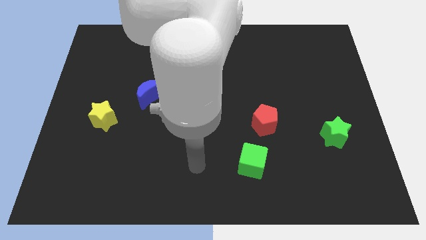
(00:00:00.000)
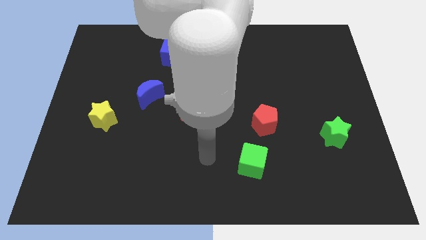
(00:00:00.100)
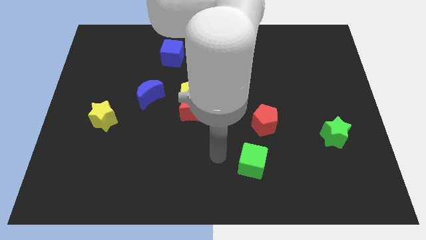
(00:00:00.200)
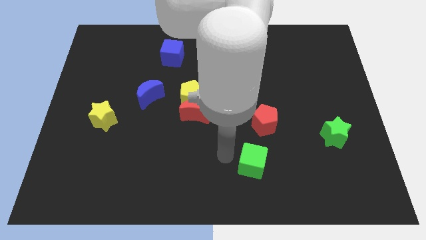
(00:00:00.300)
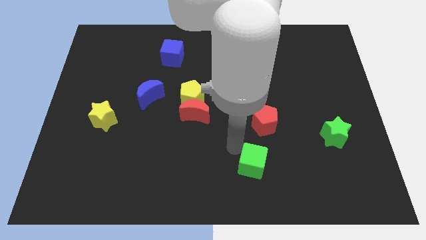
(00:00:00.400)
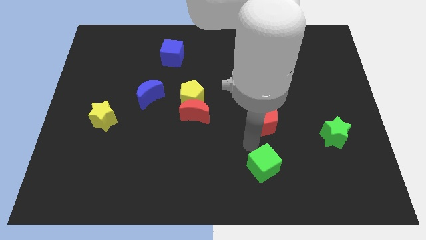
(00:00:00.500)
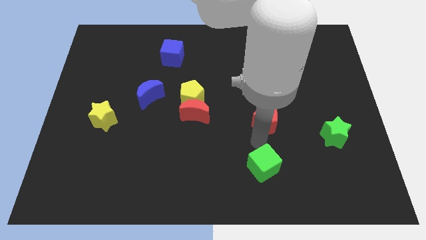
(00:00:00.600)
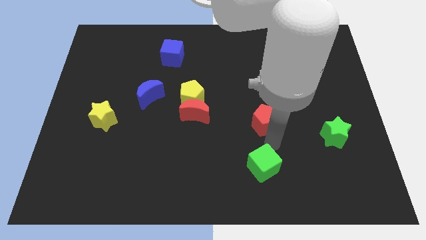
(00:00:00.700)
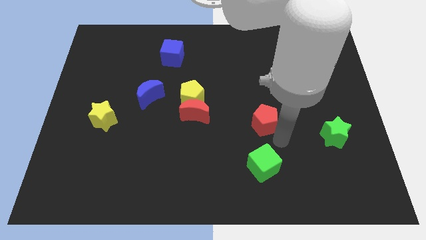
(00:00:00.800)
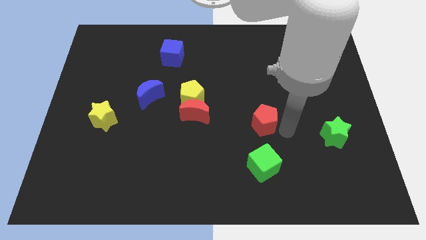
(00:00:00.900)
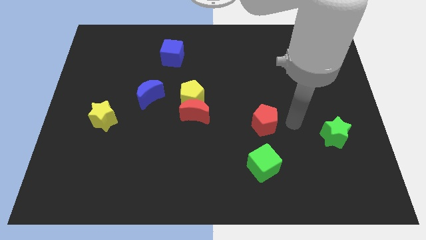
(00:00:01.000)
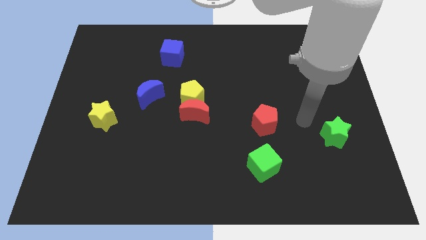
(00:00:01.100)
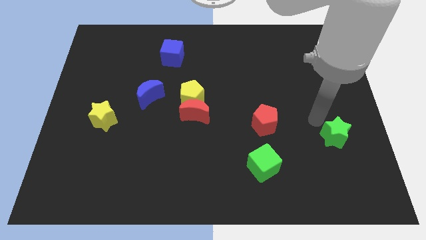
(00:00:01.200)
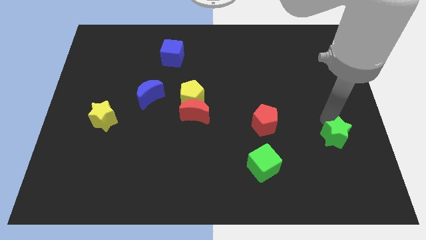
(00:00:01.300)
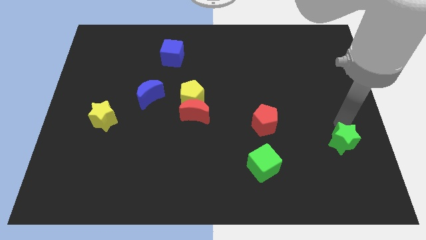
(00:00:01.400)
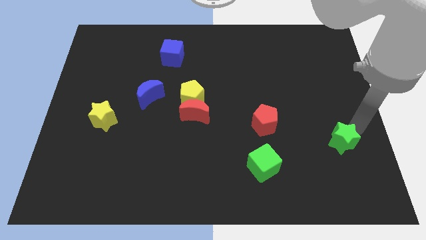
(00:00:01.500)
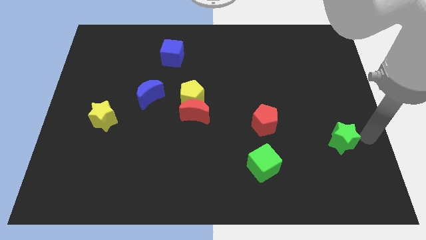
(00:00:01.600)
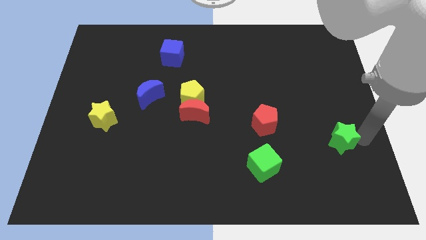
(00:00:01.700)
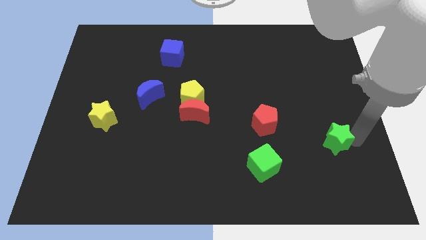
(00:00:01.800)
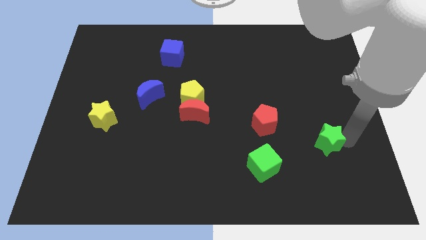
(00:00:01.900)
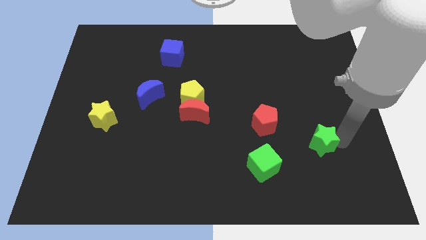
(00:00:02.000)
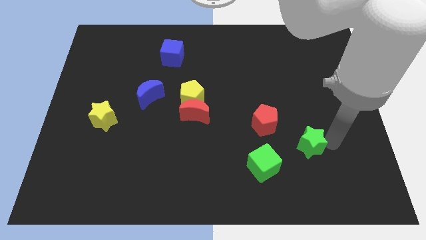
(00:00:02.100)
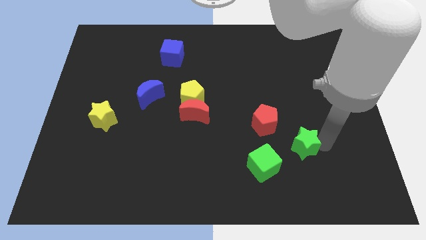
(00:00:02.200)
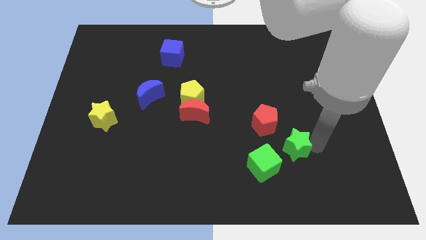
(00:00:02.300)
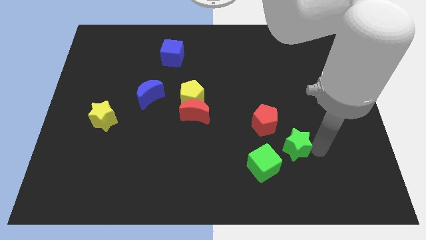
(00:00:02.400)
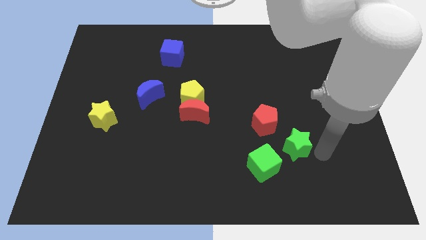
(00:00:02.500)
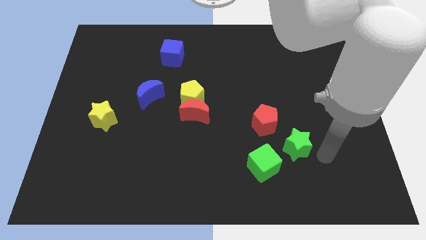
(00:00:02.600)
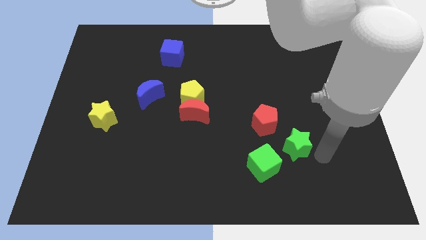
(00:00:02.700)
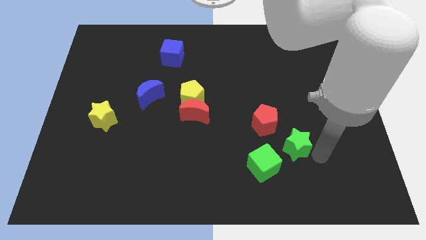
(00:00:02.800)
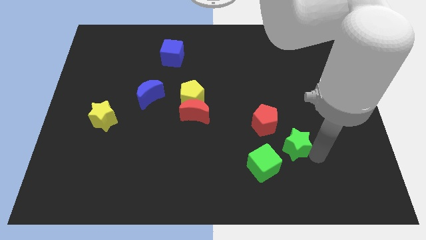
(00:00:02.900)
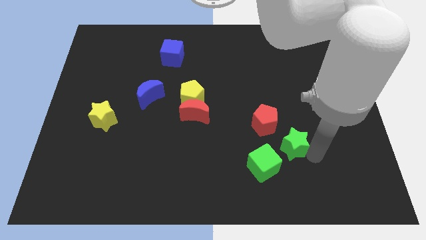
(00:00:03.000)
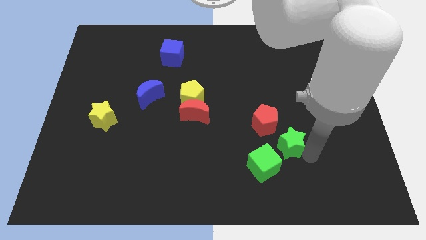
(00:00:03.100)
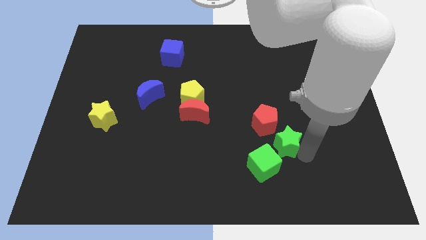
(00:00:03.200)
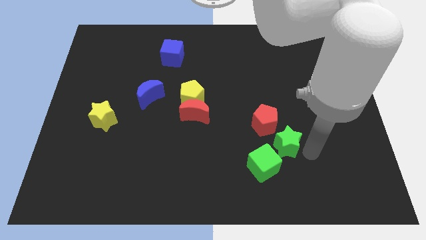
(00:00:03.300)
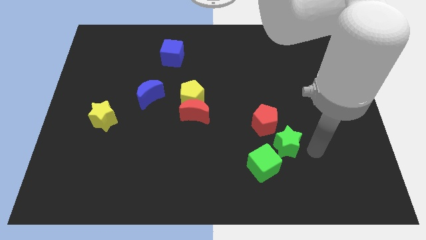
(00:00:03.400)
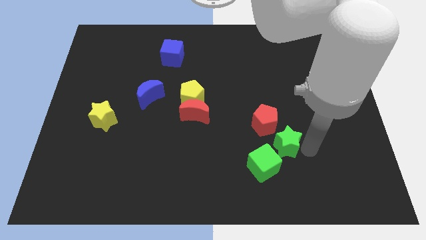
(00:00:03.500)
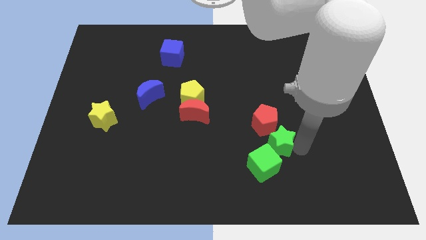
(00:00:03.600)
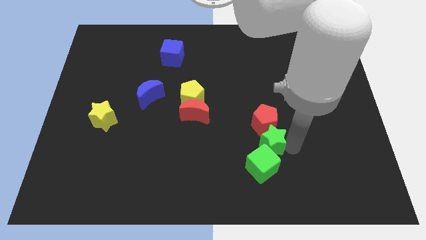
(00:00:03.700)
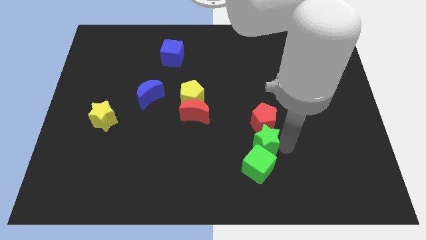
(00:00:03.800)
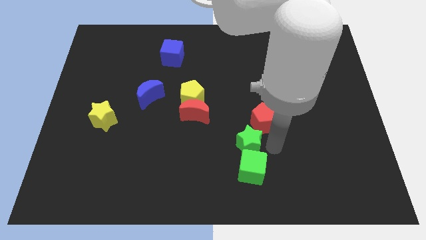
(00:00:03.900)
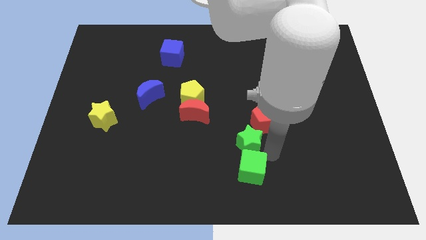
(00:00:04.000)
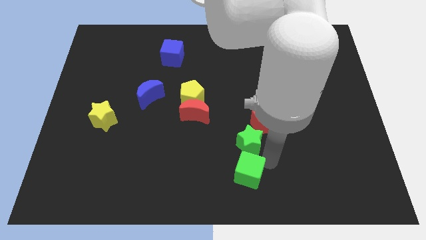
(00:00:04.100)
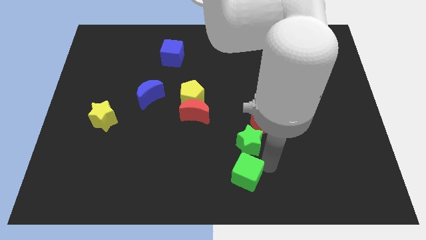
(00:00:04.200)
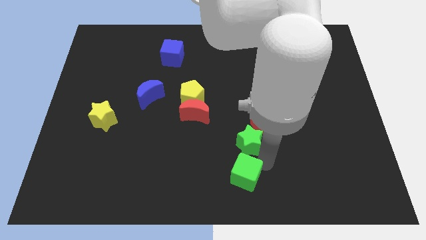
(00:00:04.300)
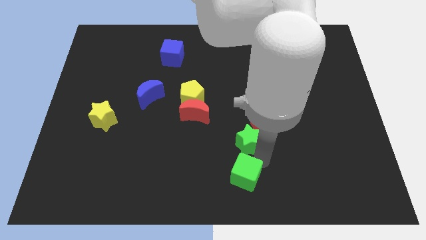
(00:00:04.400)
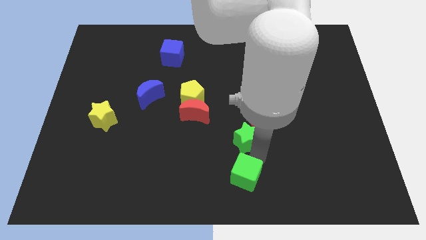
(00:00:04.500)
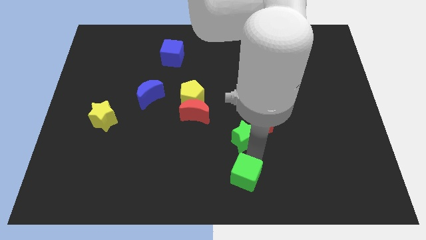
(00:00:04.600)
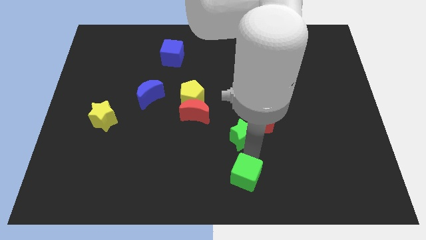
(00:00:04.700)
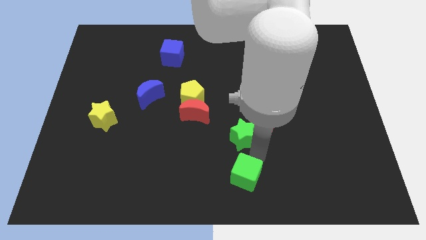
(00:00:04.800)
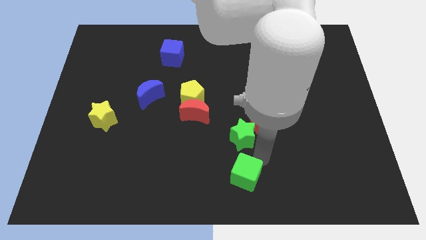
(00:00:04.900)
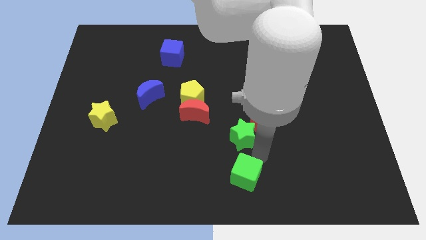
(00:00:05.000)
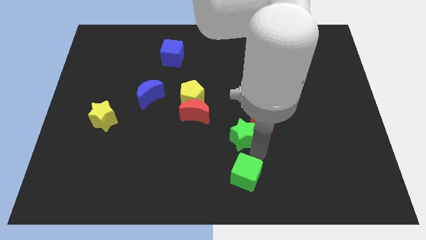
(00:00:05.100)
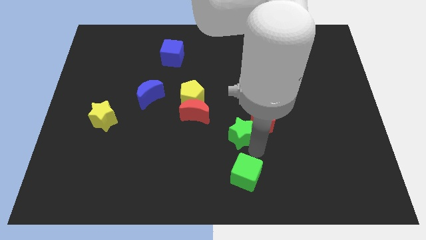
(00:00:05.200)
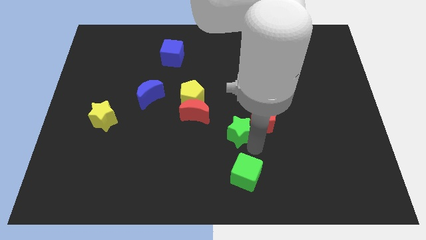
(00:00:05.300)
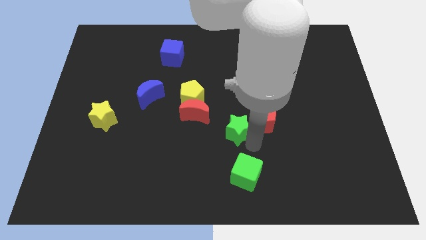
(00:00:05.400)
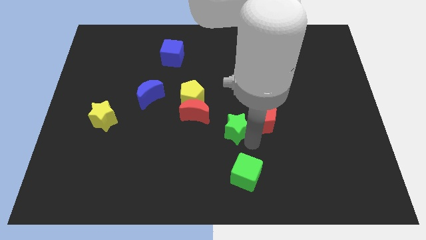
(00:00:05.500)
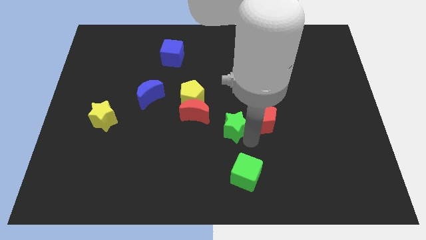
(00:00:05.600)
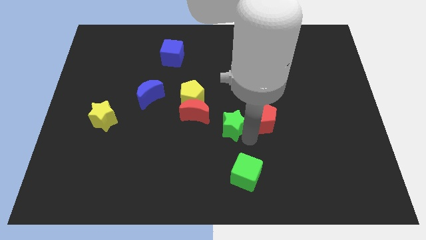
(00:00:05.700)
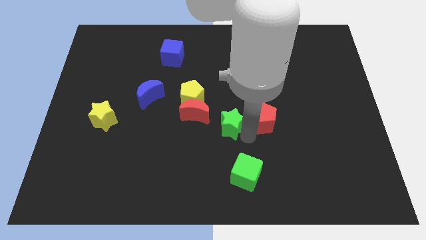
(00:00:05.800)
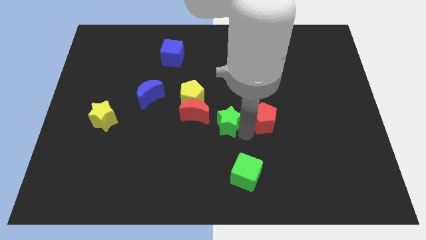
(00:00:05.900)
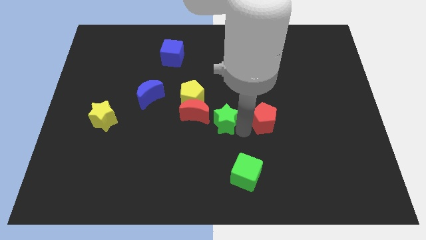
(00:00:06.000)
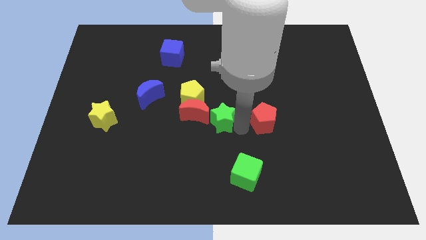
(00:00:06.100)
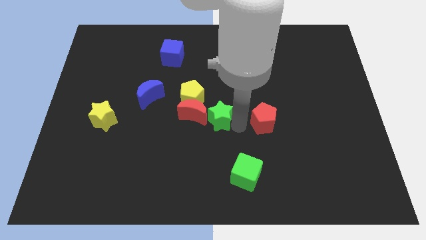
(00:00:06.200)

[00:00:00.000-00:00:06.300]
slide the green star close to the red moon

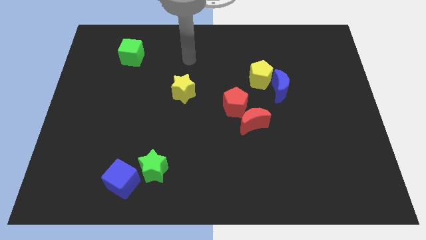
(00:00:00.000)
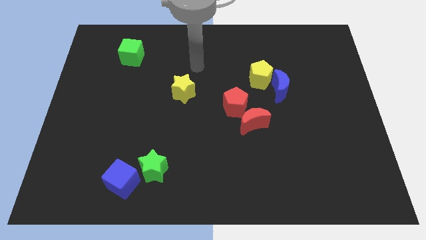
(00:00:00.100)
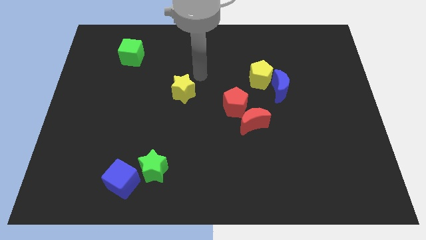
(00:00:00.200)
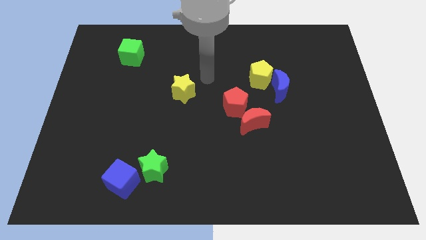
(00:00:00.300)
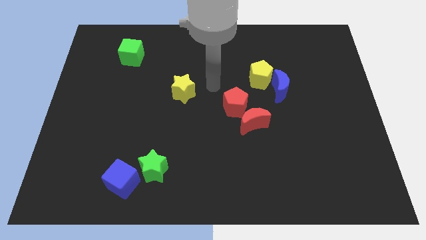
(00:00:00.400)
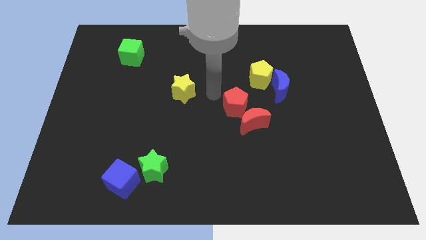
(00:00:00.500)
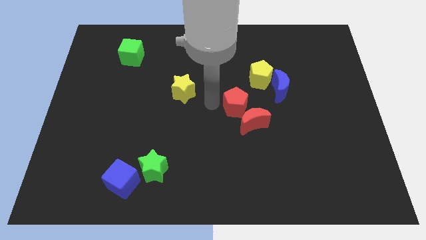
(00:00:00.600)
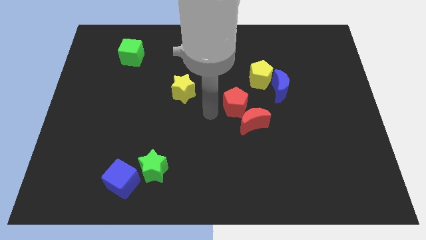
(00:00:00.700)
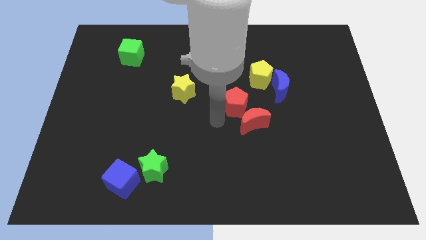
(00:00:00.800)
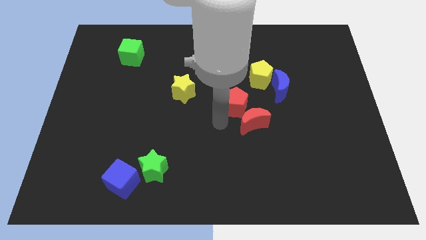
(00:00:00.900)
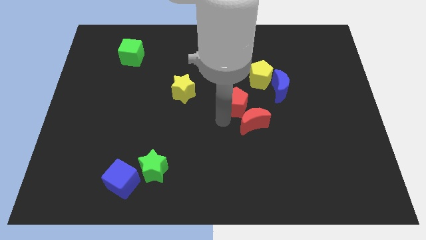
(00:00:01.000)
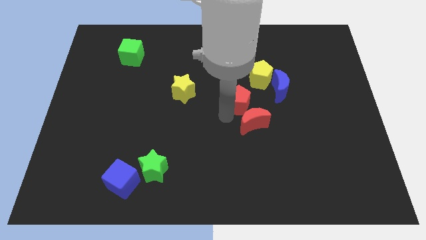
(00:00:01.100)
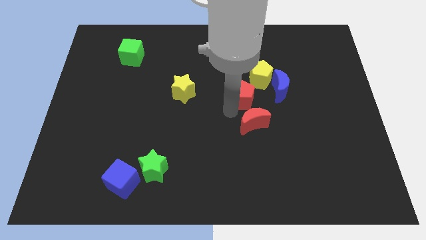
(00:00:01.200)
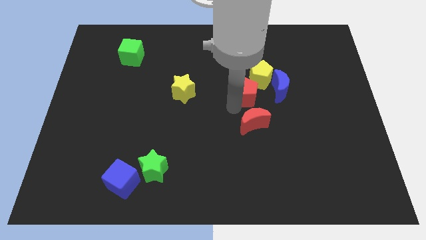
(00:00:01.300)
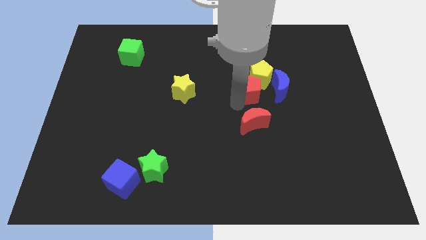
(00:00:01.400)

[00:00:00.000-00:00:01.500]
slide the red pentagon towards the yellow pentagon
